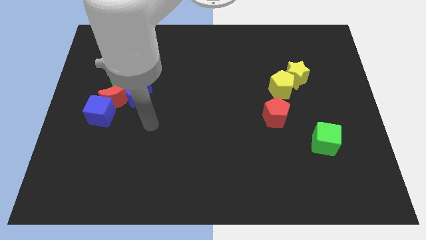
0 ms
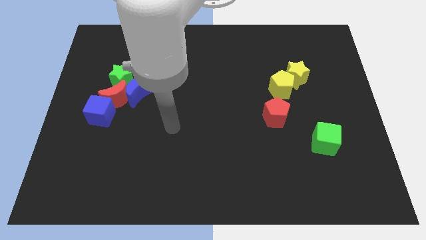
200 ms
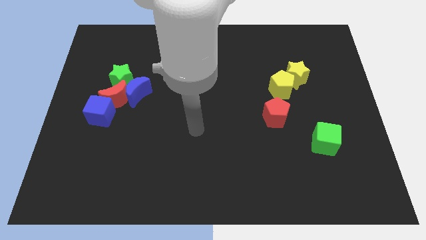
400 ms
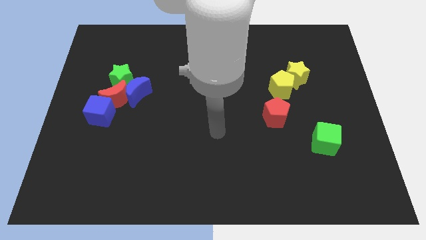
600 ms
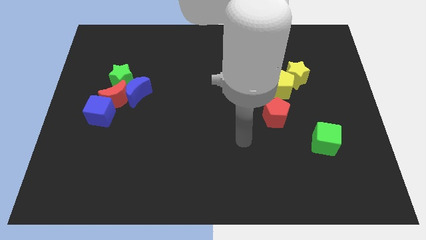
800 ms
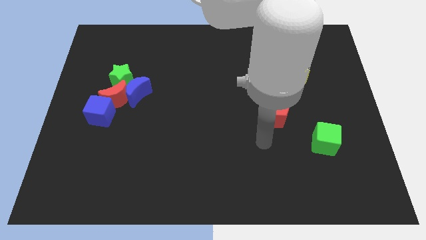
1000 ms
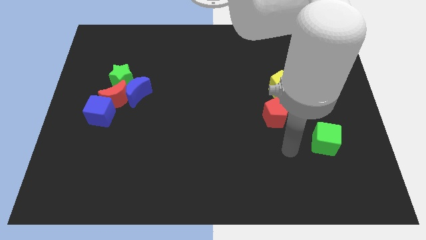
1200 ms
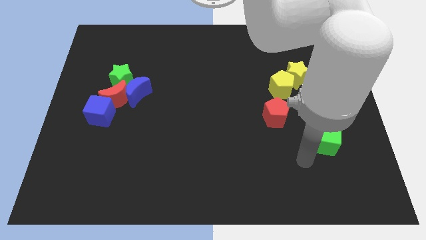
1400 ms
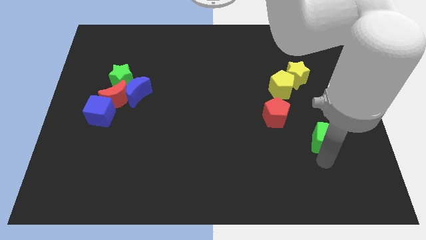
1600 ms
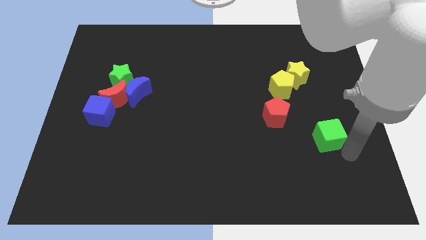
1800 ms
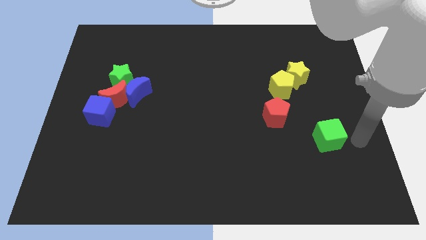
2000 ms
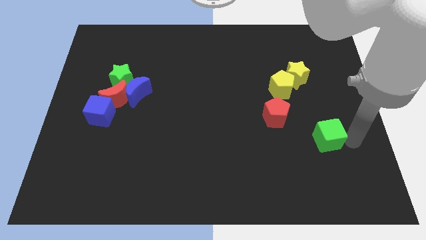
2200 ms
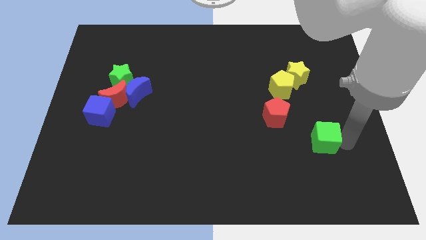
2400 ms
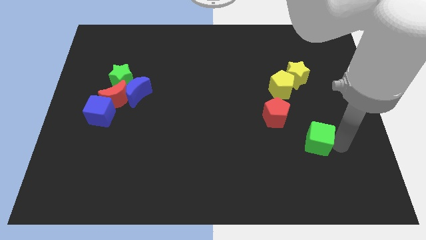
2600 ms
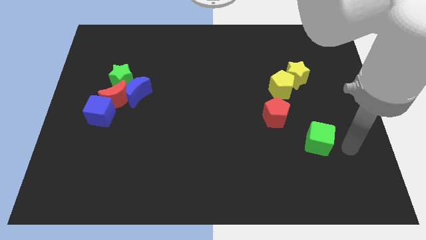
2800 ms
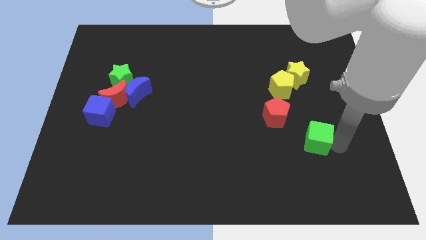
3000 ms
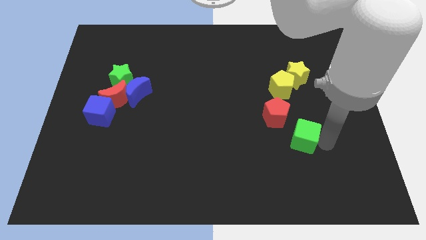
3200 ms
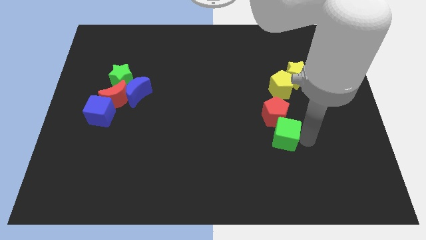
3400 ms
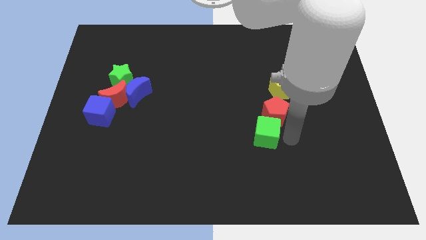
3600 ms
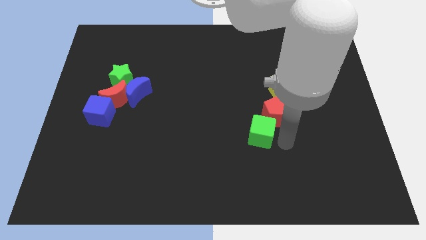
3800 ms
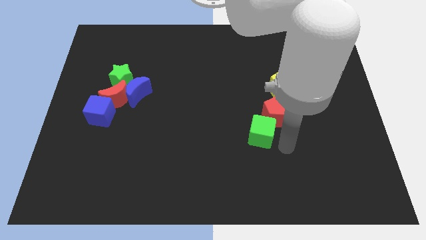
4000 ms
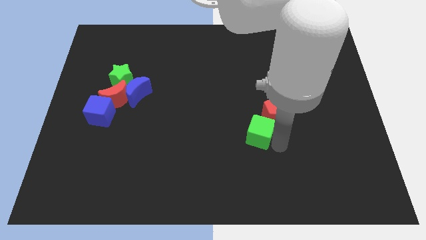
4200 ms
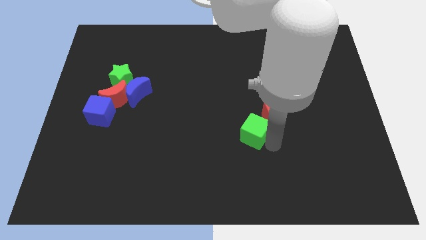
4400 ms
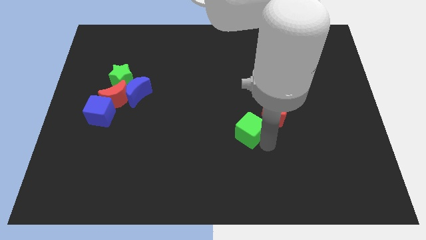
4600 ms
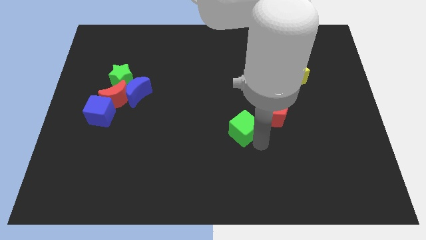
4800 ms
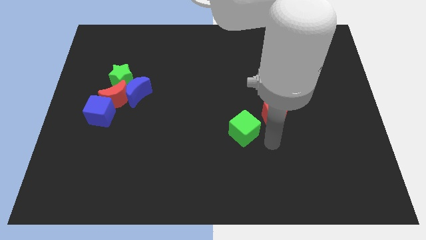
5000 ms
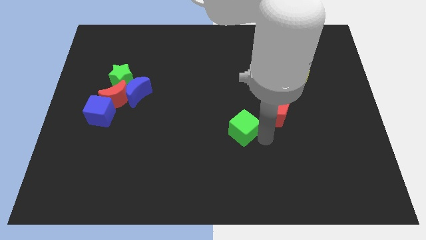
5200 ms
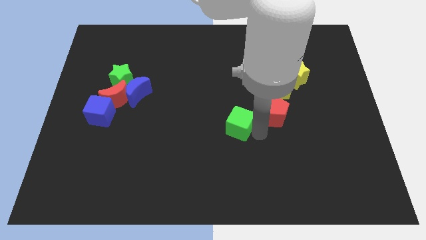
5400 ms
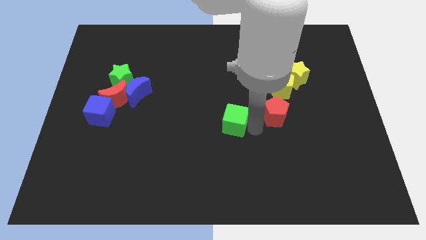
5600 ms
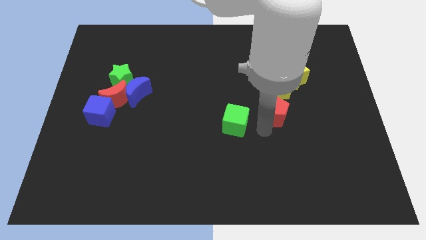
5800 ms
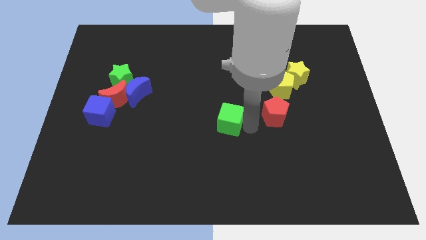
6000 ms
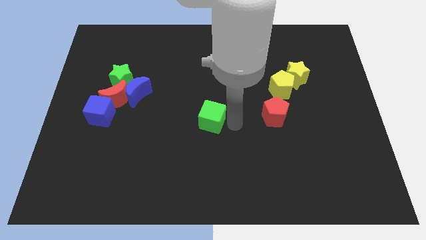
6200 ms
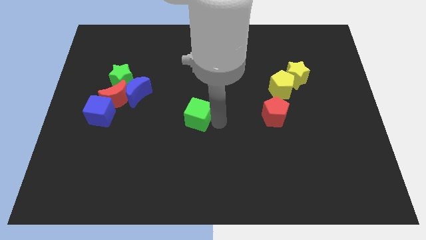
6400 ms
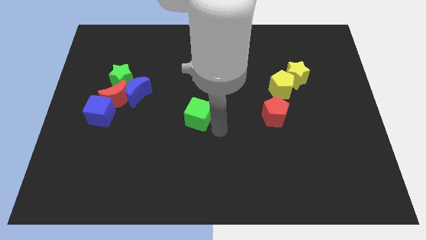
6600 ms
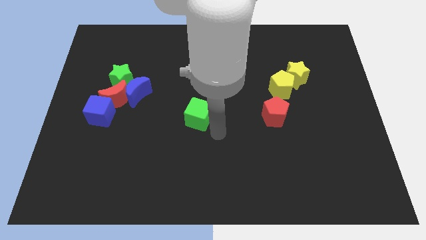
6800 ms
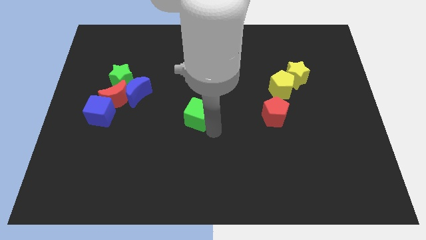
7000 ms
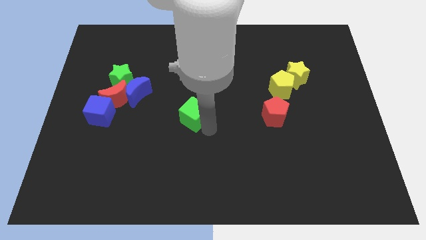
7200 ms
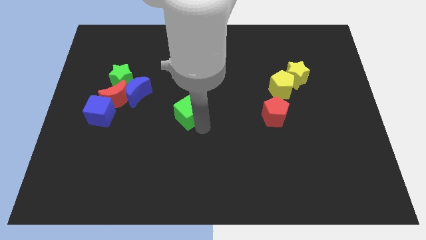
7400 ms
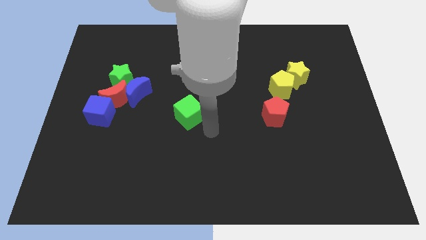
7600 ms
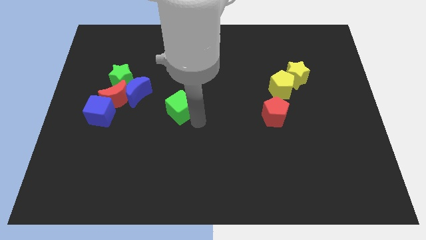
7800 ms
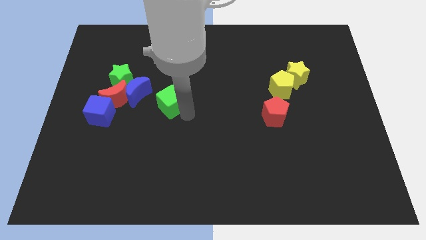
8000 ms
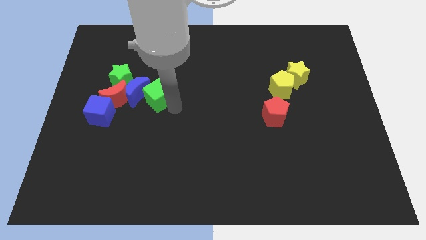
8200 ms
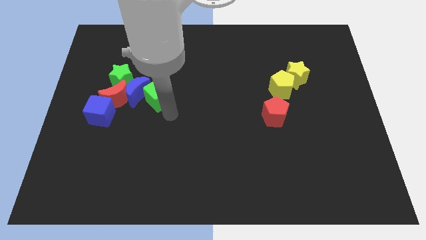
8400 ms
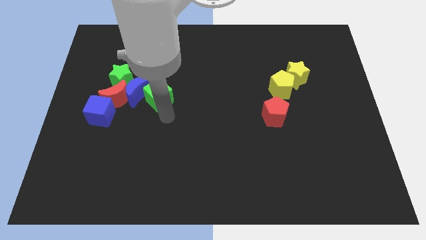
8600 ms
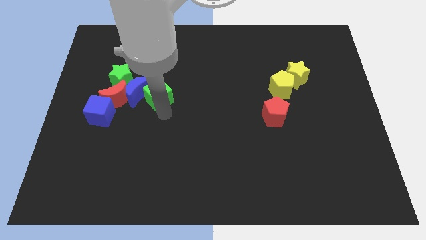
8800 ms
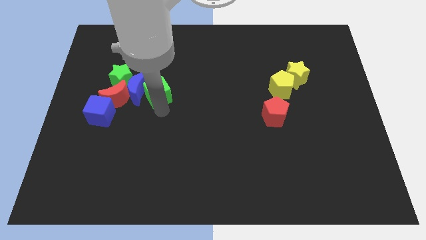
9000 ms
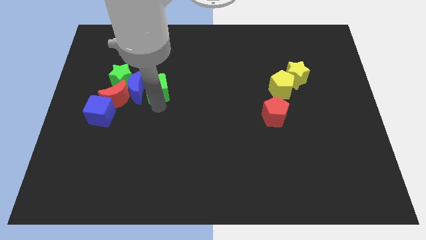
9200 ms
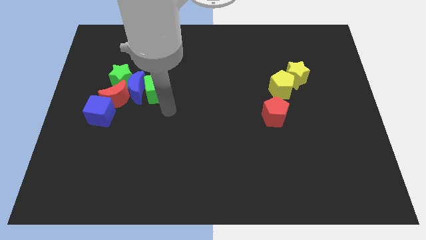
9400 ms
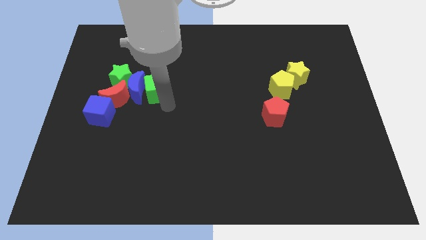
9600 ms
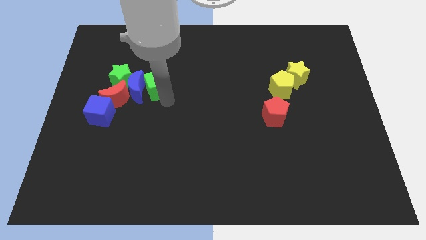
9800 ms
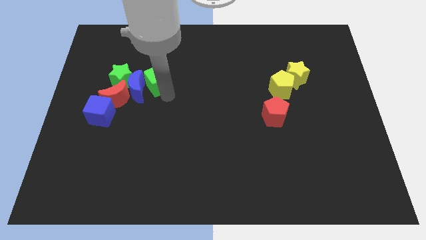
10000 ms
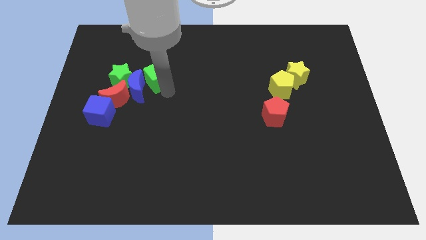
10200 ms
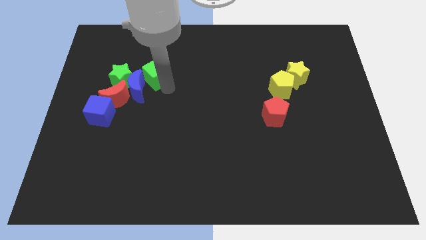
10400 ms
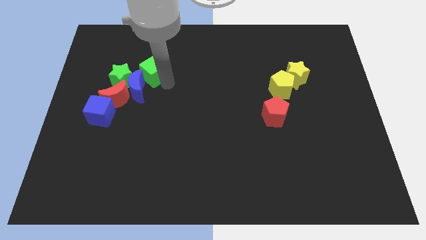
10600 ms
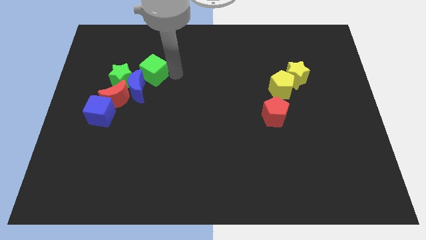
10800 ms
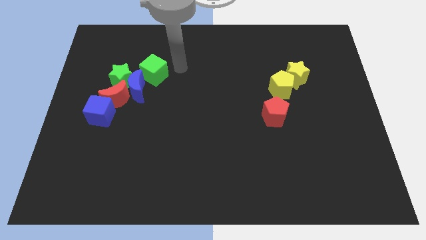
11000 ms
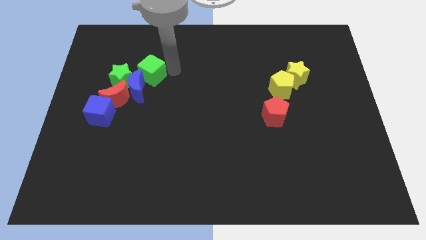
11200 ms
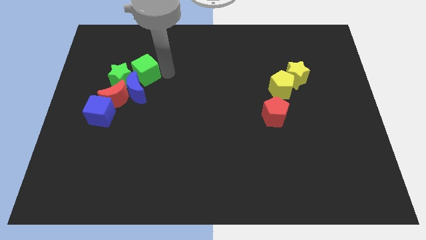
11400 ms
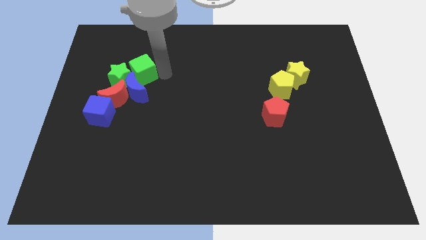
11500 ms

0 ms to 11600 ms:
push the green cube towards the green star

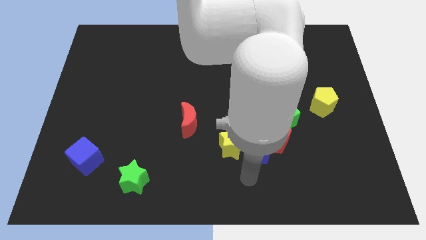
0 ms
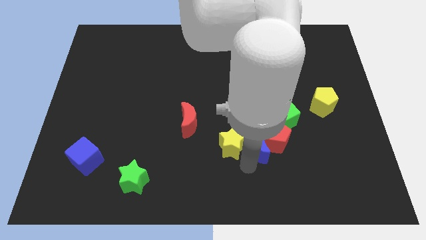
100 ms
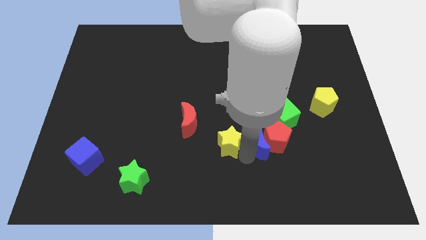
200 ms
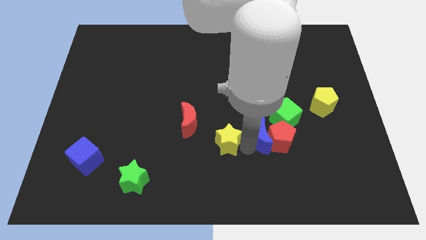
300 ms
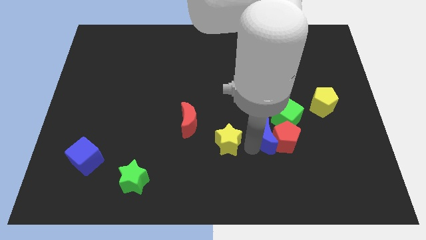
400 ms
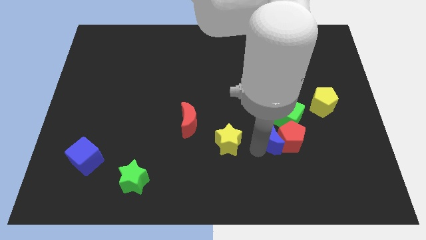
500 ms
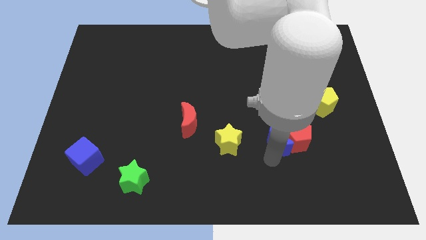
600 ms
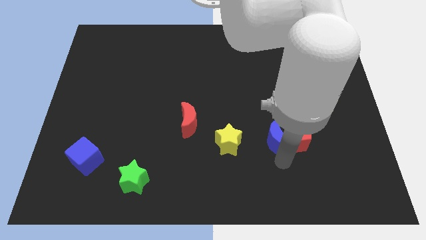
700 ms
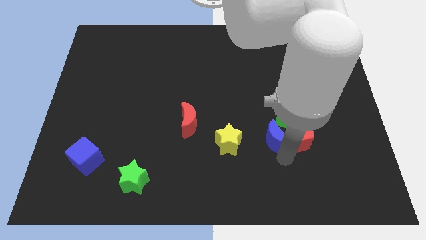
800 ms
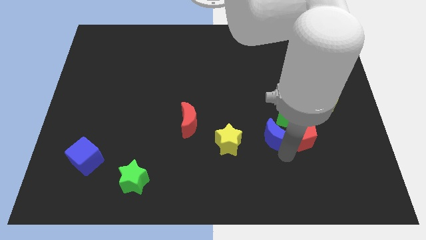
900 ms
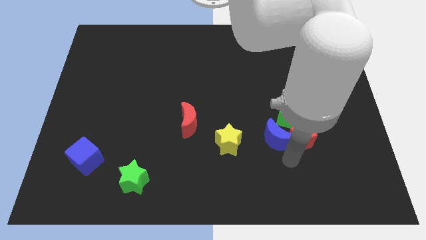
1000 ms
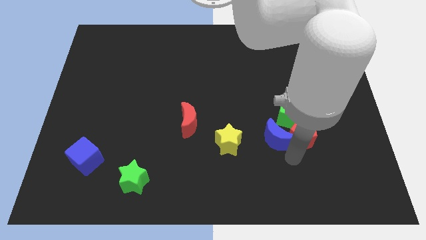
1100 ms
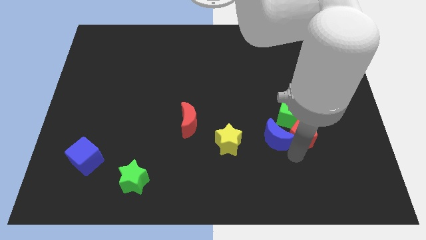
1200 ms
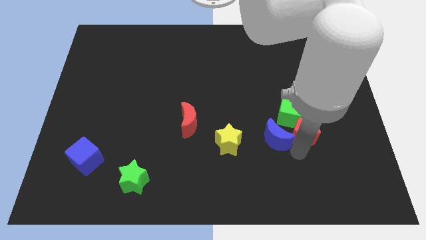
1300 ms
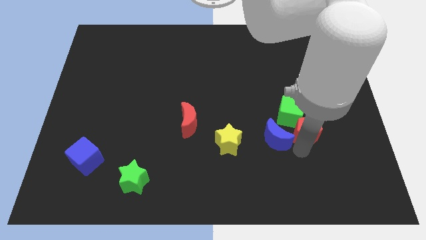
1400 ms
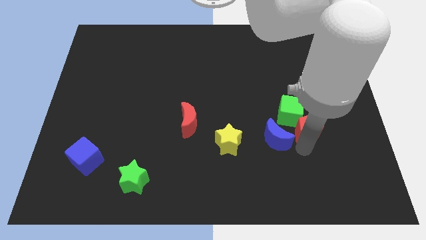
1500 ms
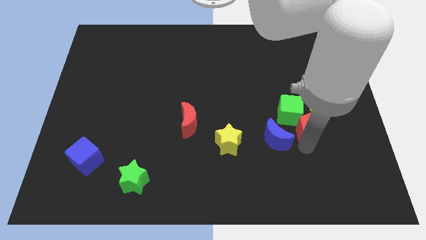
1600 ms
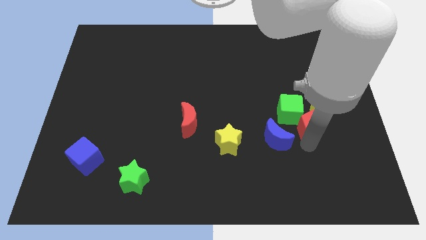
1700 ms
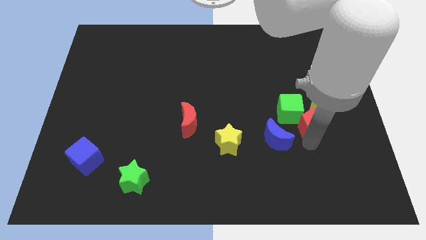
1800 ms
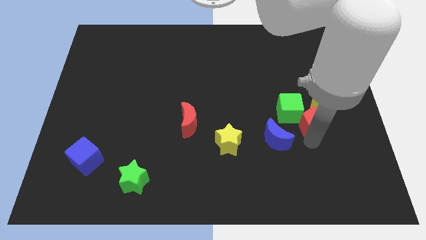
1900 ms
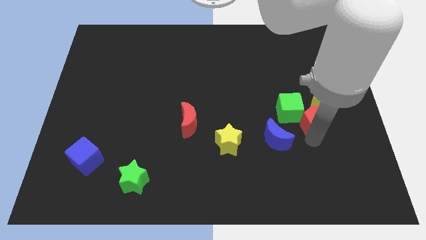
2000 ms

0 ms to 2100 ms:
move the red pentagon to the yellow pentagon

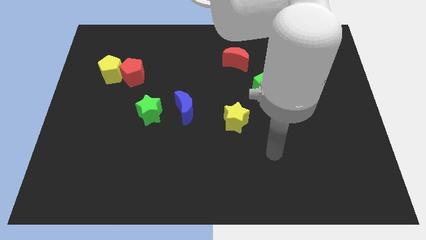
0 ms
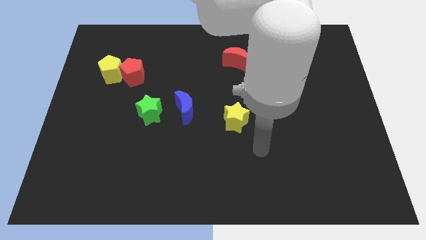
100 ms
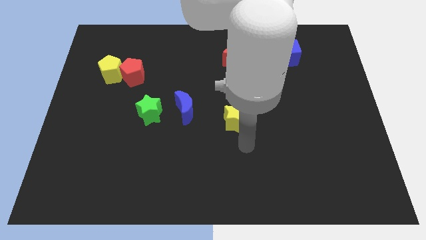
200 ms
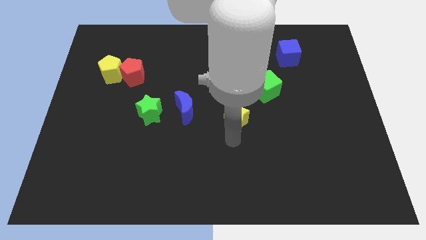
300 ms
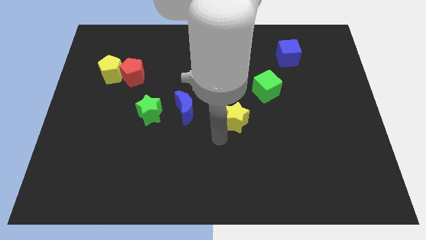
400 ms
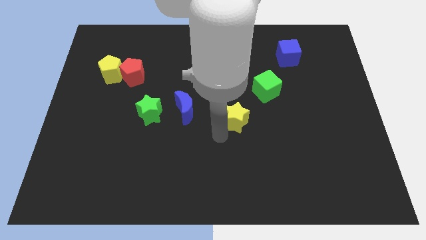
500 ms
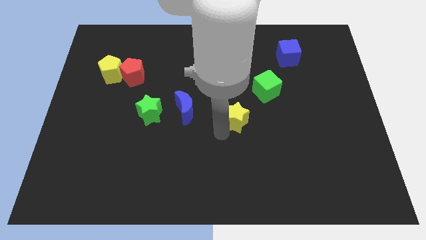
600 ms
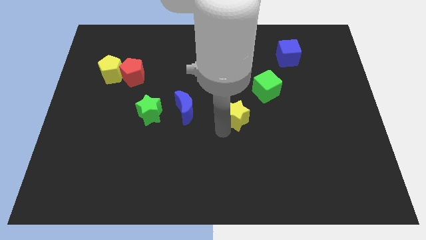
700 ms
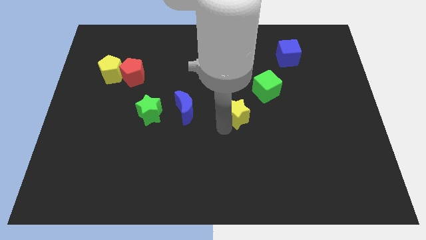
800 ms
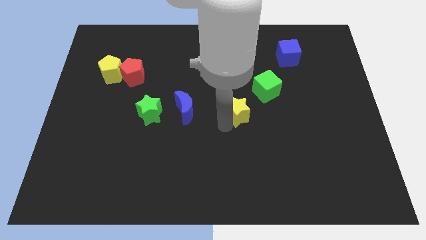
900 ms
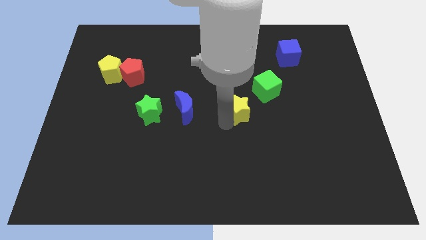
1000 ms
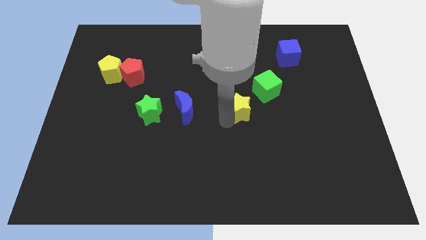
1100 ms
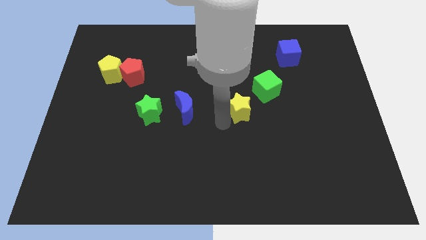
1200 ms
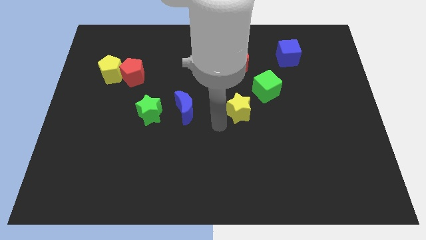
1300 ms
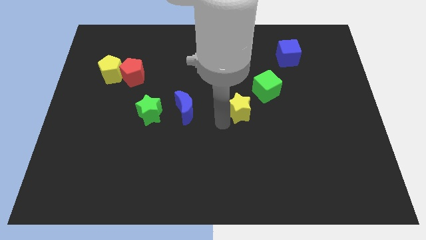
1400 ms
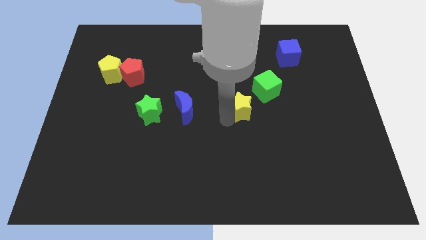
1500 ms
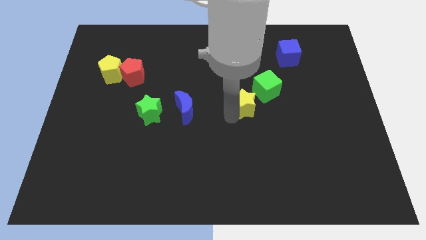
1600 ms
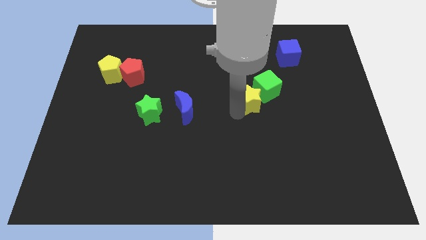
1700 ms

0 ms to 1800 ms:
slide the yellow star next to the green cube
